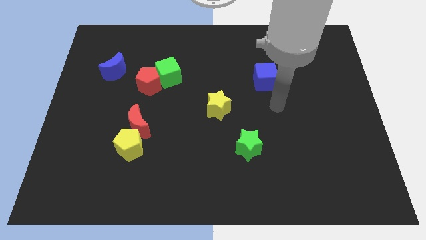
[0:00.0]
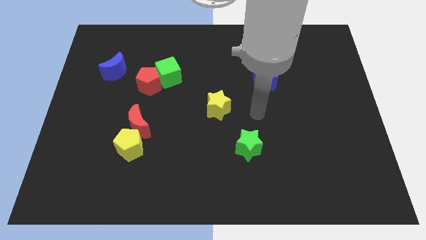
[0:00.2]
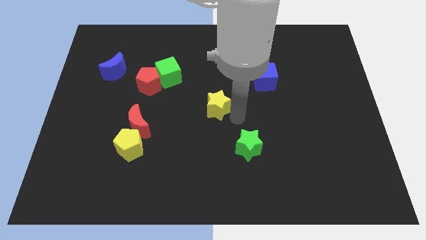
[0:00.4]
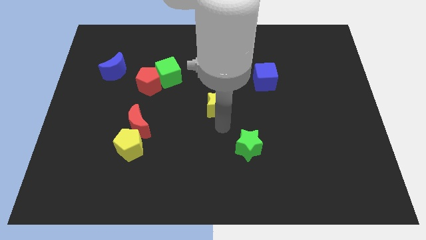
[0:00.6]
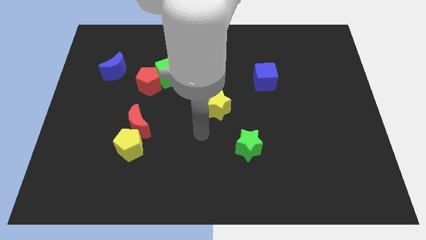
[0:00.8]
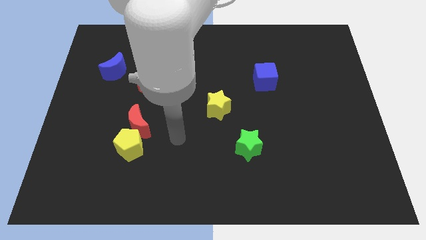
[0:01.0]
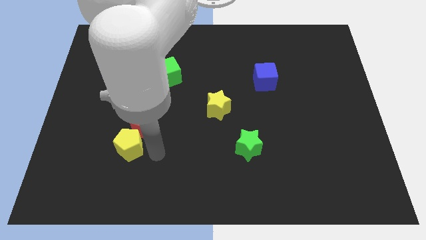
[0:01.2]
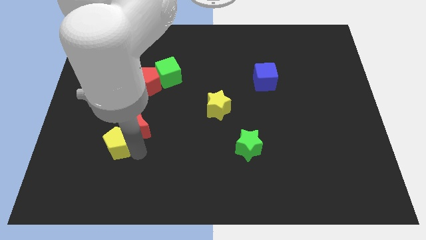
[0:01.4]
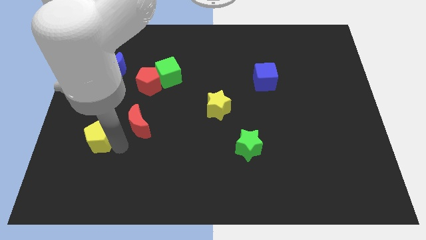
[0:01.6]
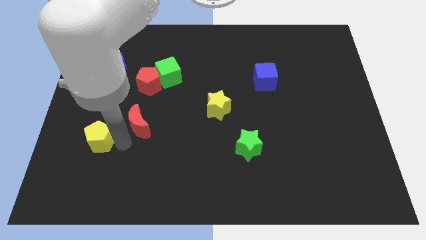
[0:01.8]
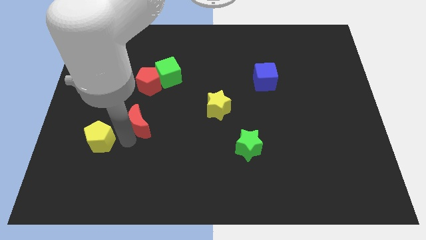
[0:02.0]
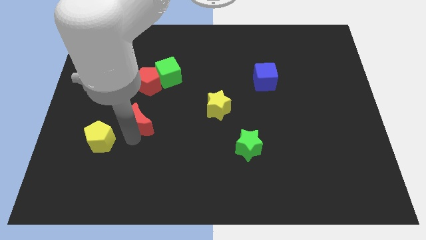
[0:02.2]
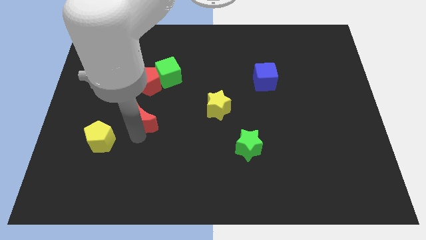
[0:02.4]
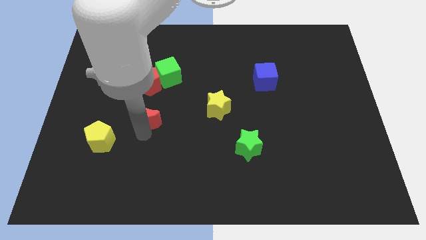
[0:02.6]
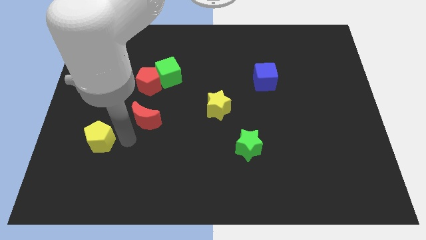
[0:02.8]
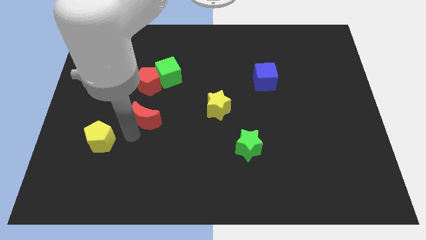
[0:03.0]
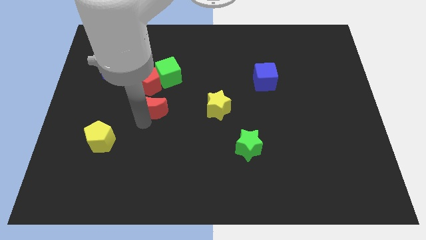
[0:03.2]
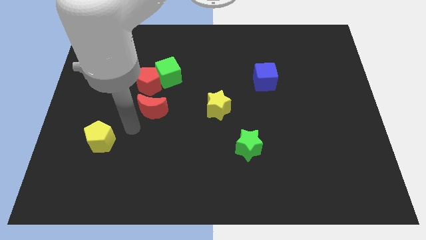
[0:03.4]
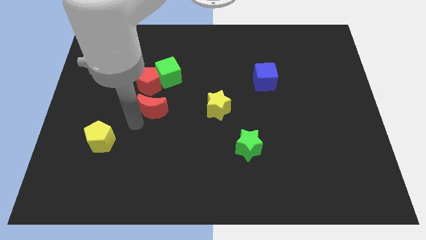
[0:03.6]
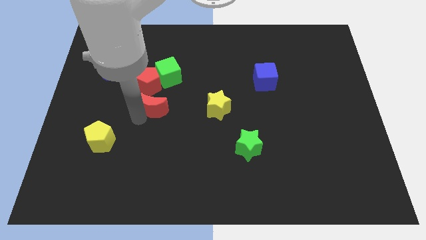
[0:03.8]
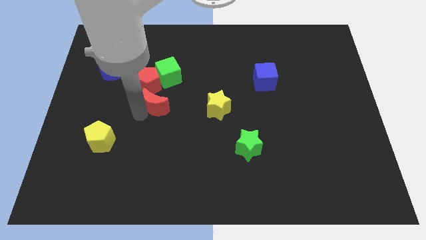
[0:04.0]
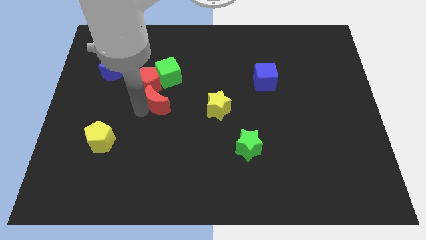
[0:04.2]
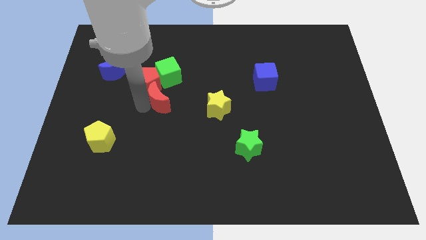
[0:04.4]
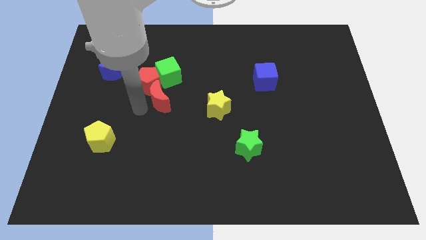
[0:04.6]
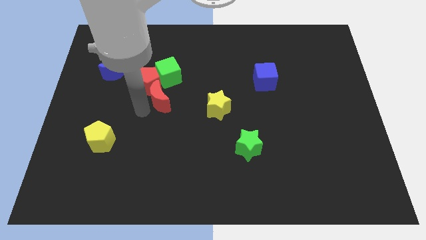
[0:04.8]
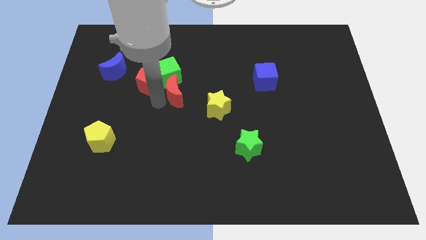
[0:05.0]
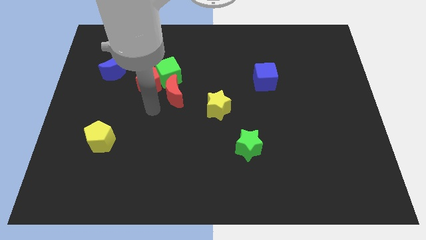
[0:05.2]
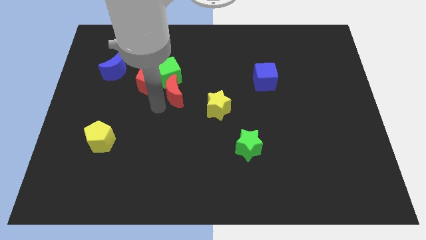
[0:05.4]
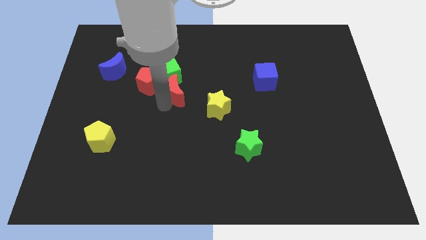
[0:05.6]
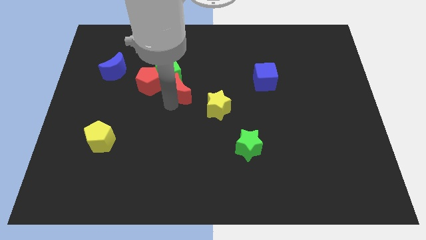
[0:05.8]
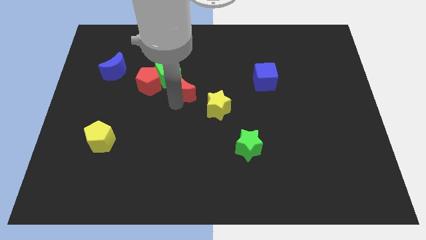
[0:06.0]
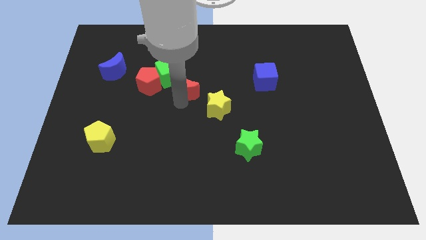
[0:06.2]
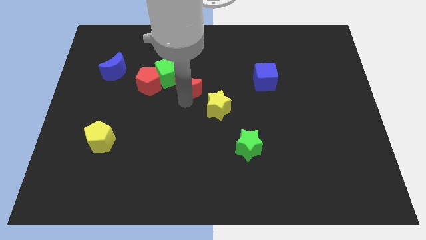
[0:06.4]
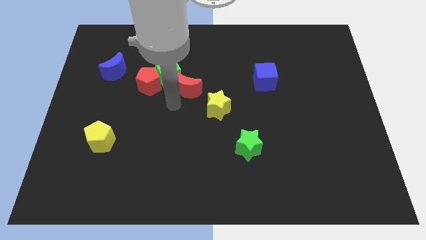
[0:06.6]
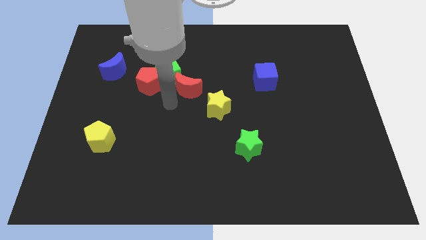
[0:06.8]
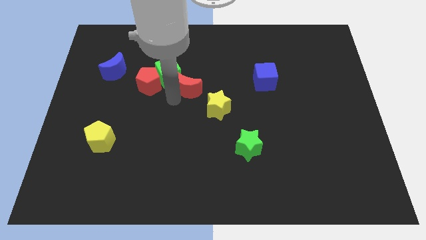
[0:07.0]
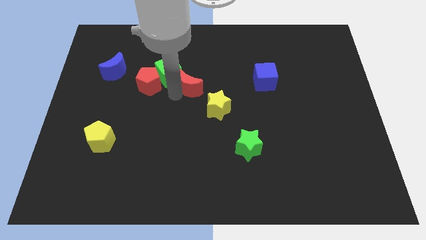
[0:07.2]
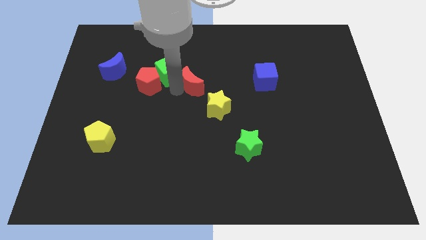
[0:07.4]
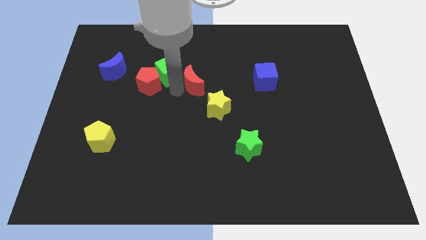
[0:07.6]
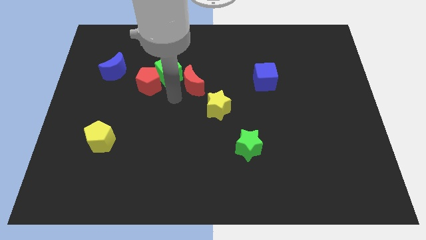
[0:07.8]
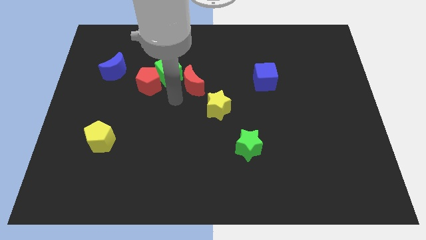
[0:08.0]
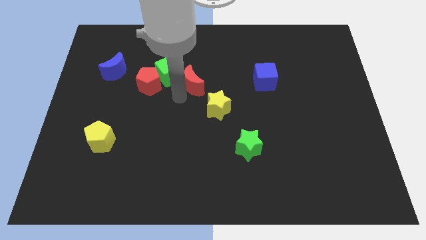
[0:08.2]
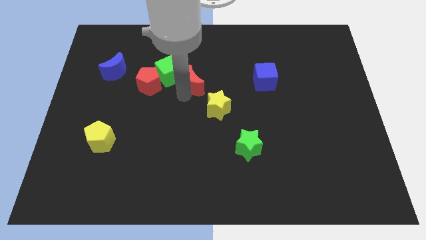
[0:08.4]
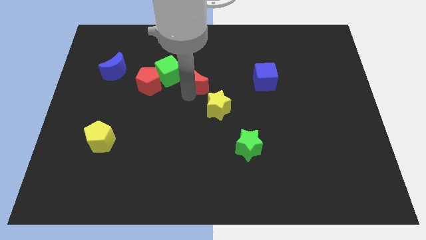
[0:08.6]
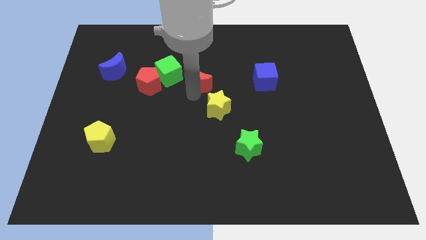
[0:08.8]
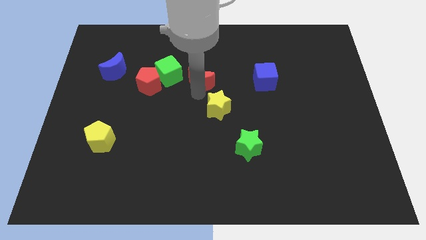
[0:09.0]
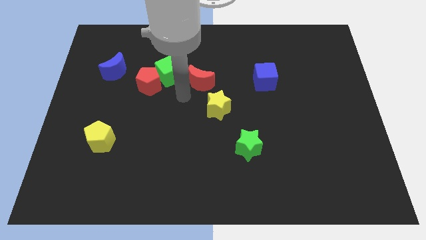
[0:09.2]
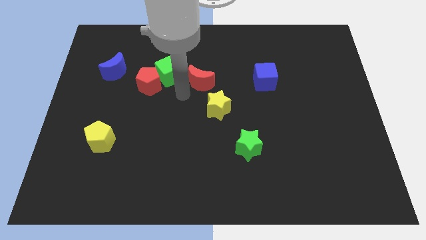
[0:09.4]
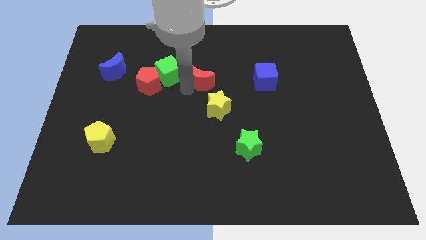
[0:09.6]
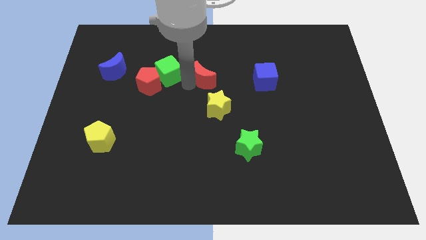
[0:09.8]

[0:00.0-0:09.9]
slide the red moon upwards and right

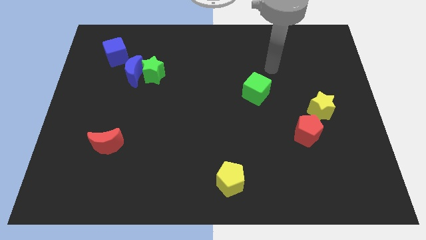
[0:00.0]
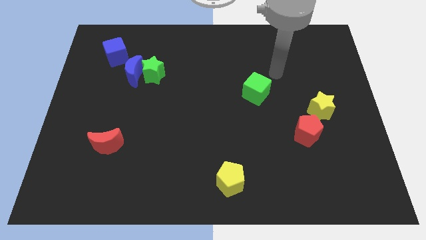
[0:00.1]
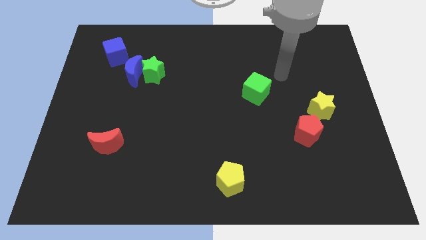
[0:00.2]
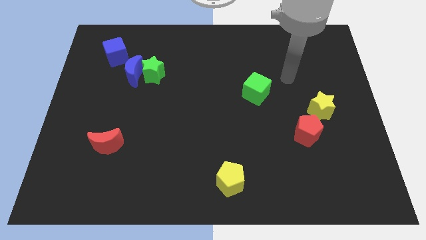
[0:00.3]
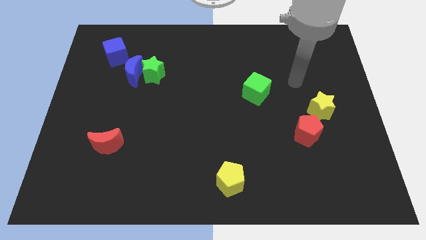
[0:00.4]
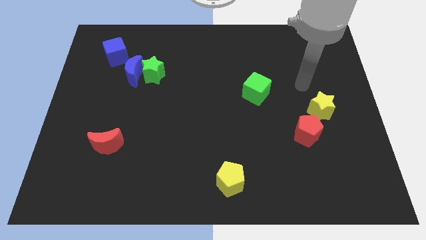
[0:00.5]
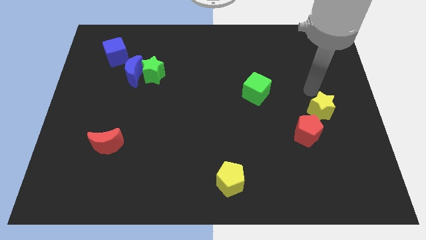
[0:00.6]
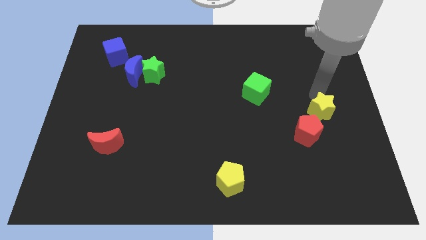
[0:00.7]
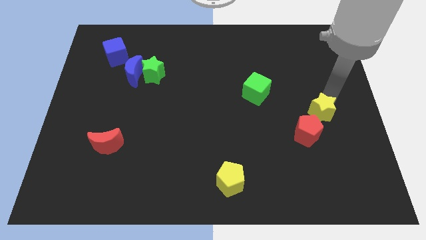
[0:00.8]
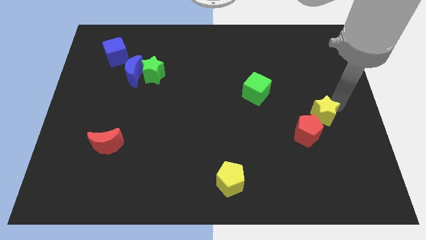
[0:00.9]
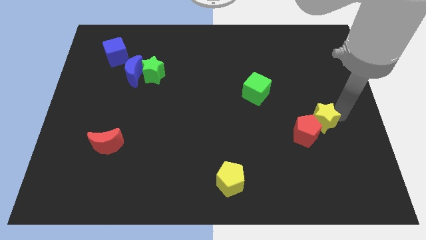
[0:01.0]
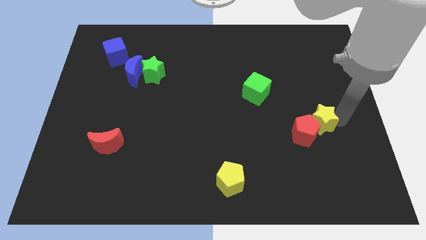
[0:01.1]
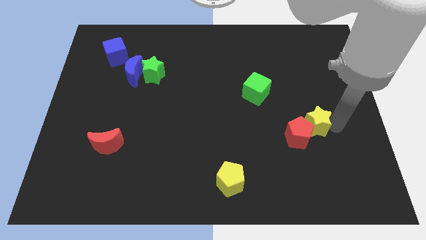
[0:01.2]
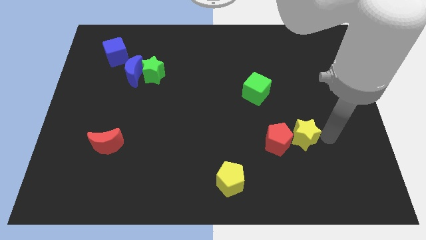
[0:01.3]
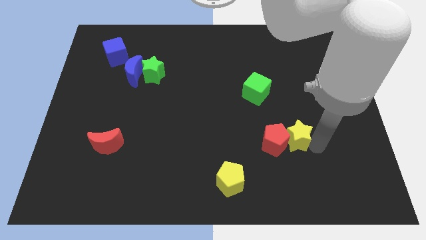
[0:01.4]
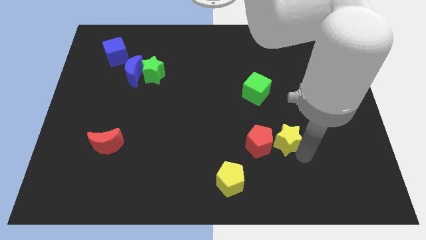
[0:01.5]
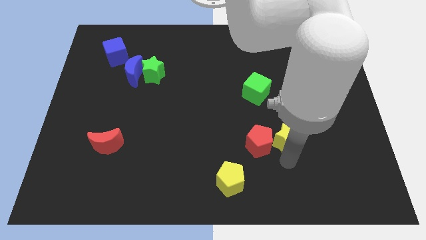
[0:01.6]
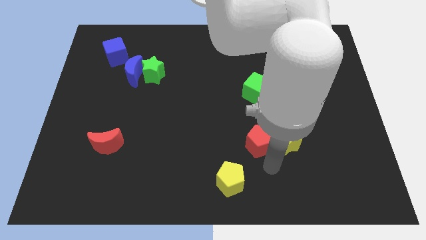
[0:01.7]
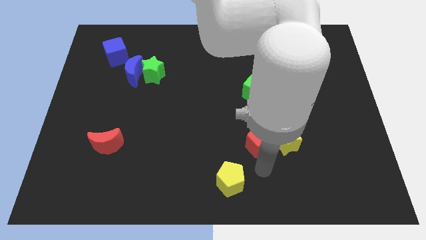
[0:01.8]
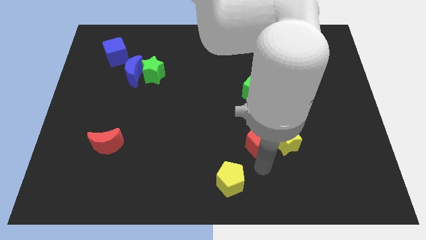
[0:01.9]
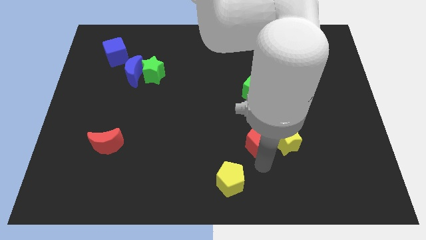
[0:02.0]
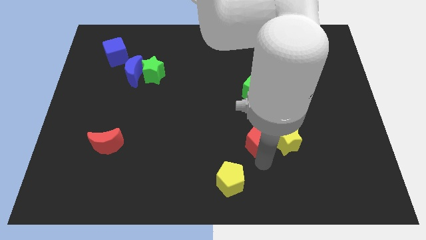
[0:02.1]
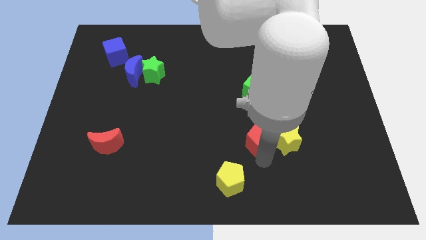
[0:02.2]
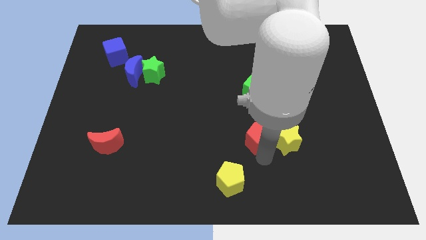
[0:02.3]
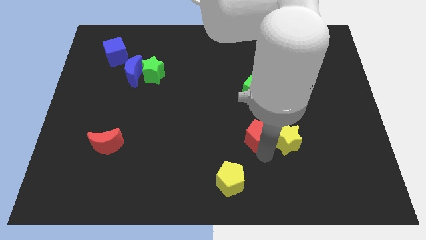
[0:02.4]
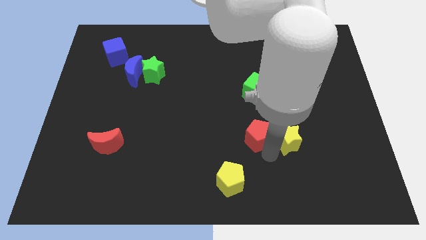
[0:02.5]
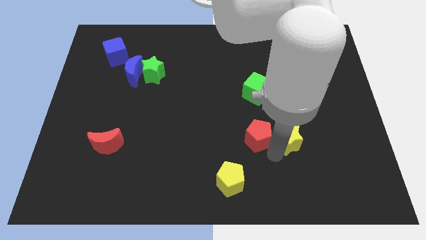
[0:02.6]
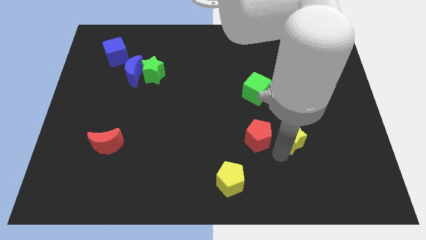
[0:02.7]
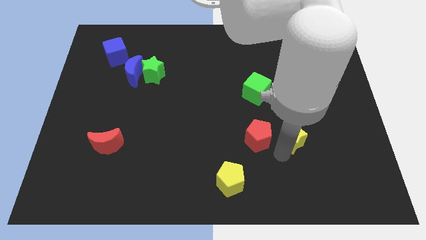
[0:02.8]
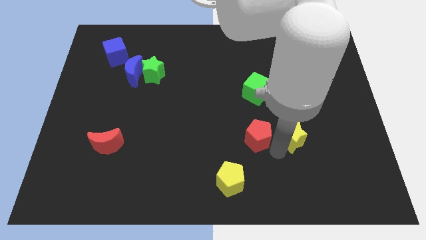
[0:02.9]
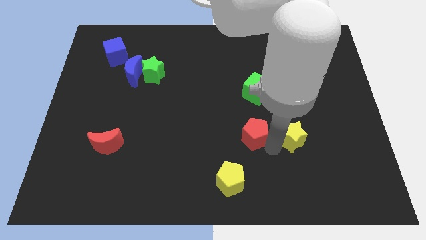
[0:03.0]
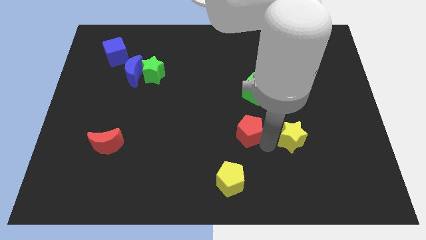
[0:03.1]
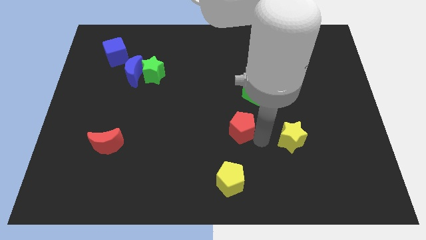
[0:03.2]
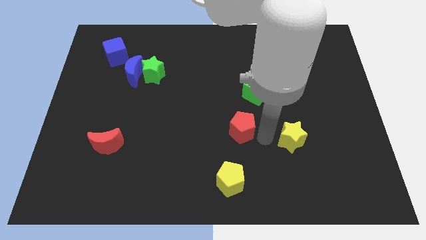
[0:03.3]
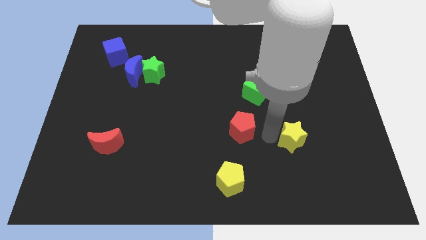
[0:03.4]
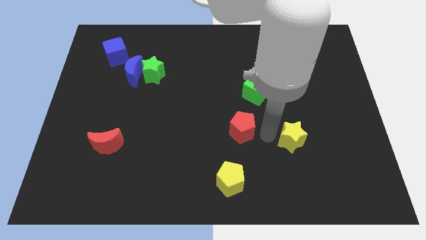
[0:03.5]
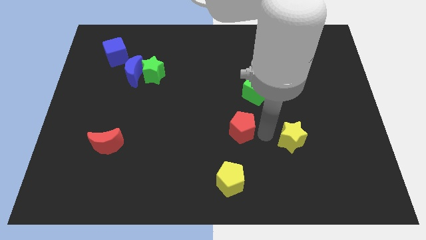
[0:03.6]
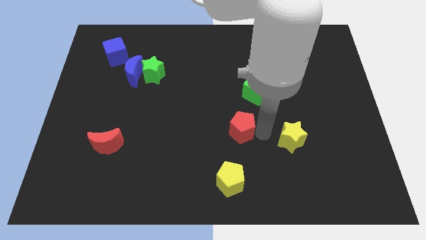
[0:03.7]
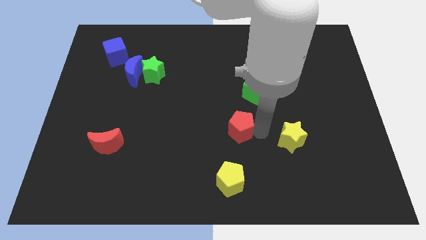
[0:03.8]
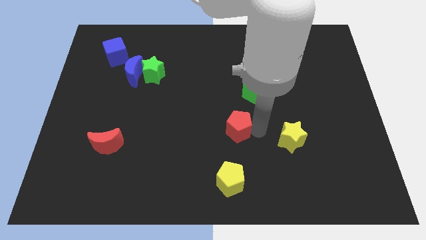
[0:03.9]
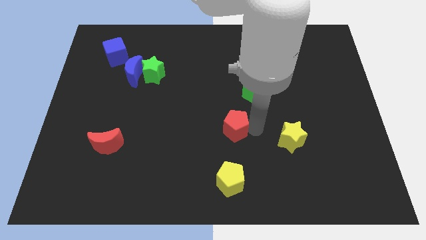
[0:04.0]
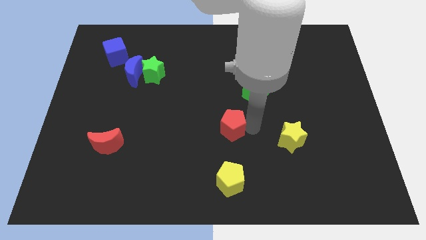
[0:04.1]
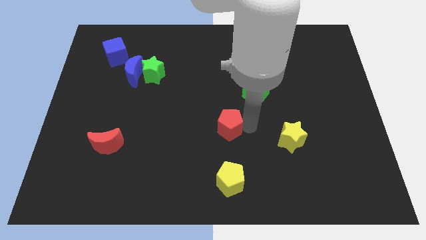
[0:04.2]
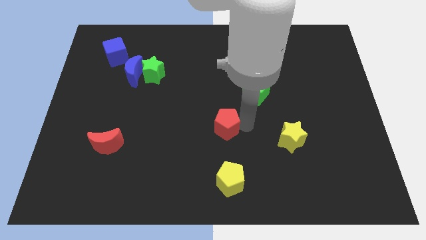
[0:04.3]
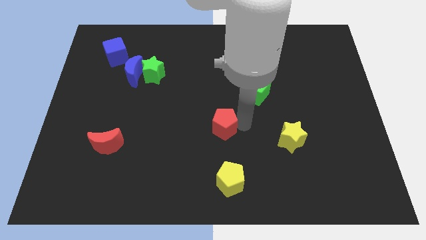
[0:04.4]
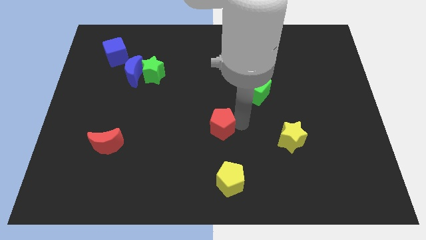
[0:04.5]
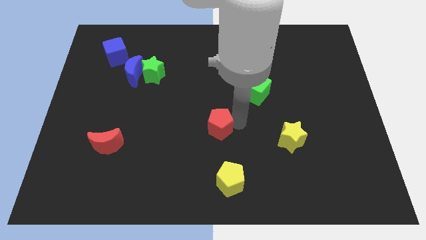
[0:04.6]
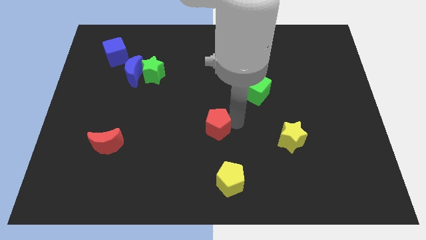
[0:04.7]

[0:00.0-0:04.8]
slide the red pentagon left
